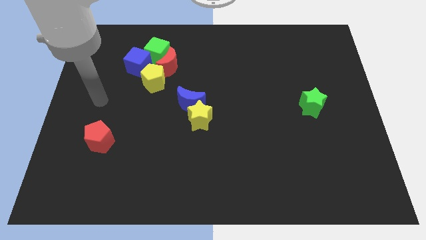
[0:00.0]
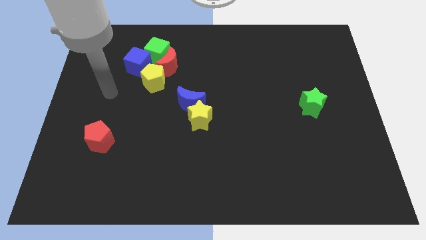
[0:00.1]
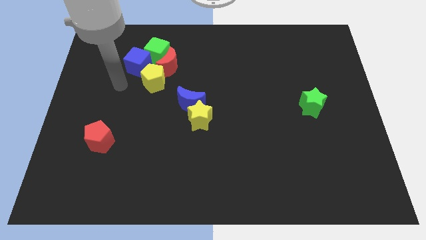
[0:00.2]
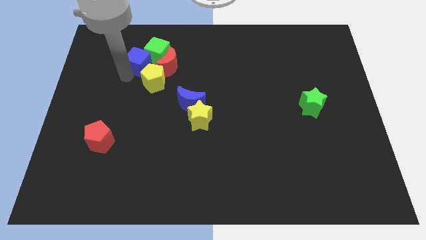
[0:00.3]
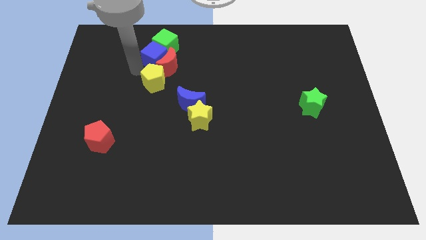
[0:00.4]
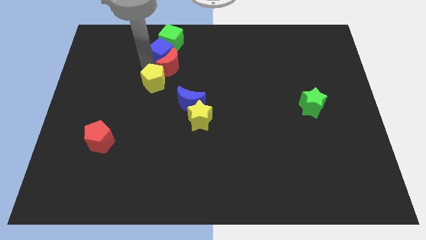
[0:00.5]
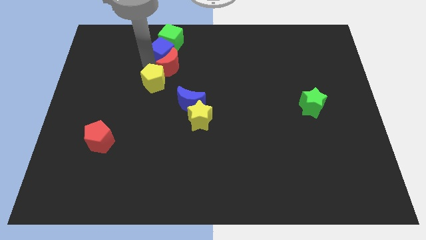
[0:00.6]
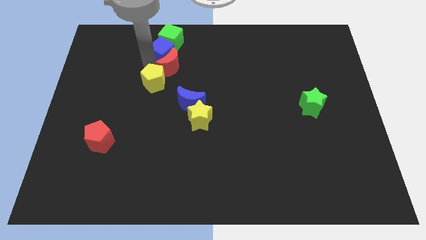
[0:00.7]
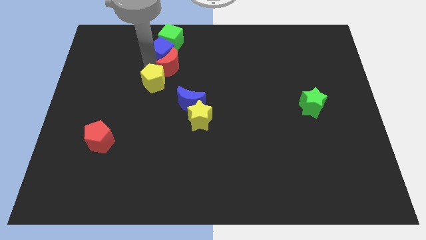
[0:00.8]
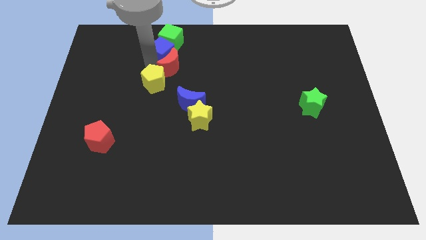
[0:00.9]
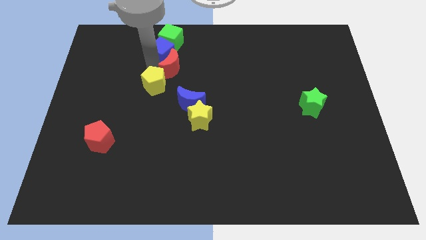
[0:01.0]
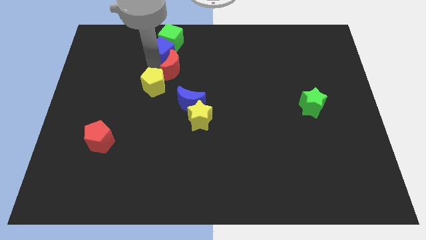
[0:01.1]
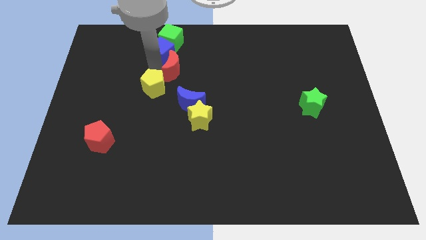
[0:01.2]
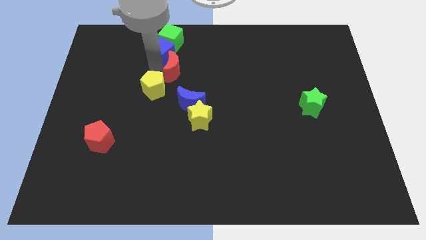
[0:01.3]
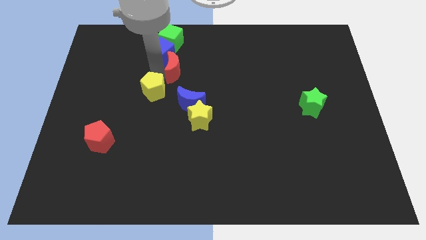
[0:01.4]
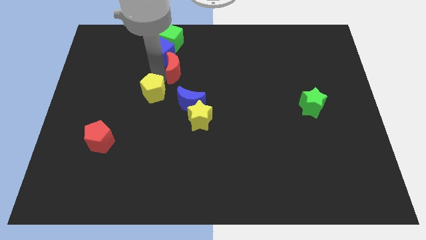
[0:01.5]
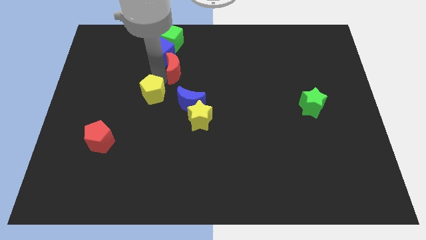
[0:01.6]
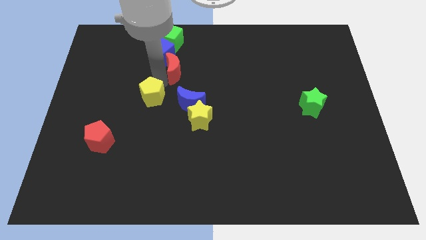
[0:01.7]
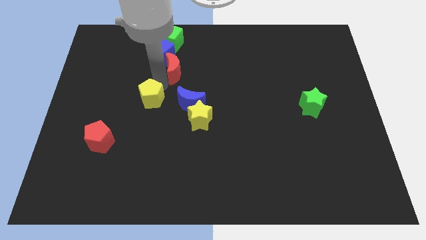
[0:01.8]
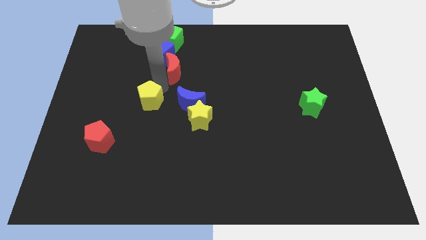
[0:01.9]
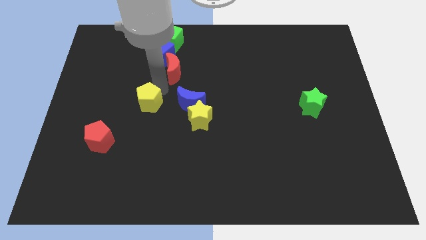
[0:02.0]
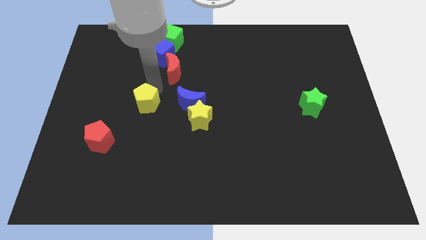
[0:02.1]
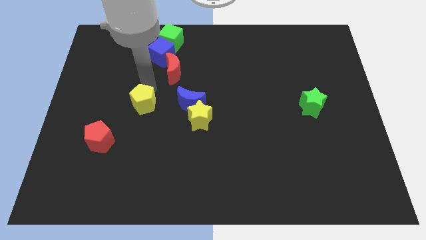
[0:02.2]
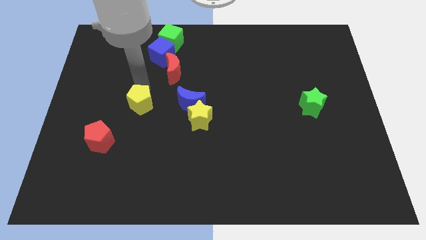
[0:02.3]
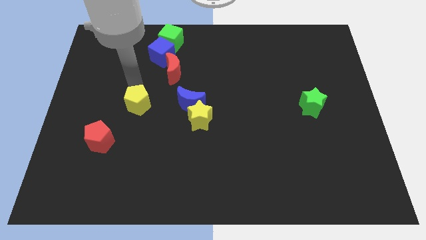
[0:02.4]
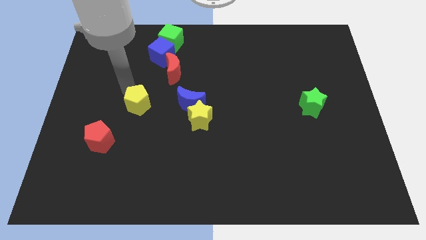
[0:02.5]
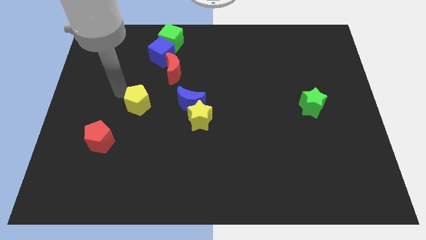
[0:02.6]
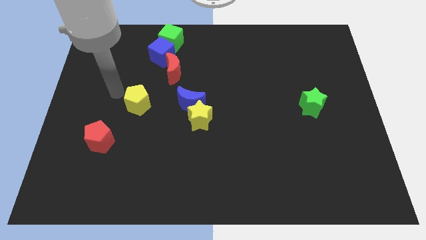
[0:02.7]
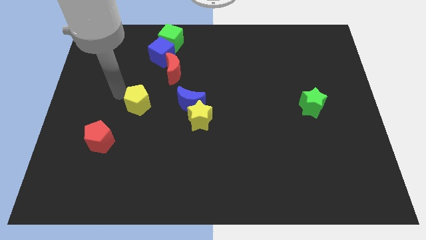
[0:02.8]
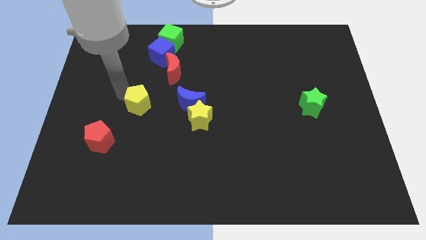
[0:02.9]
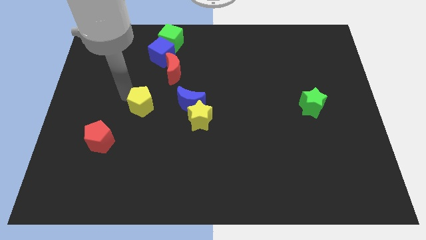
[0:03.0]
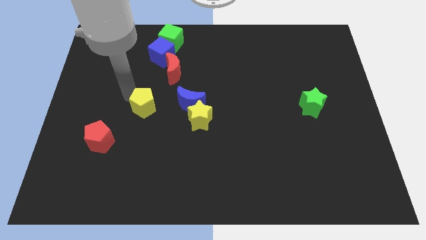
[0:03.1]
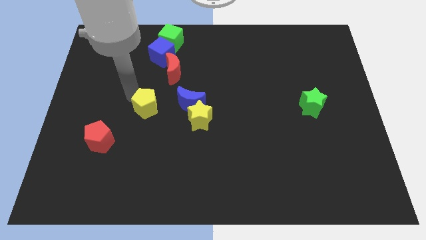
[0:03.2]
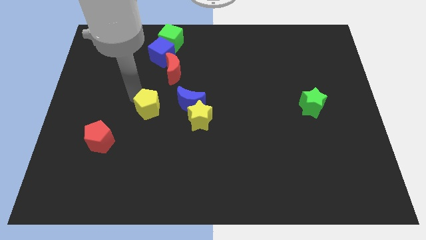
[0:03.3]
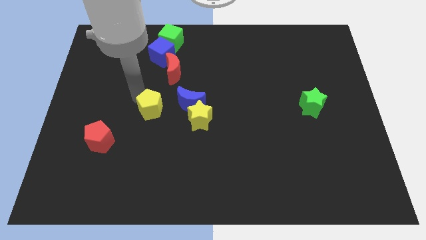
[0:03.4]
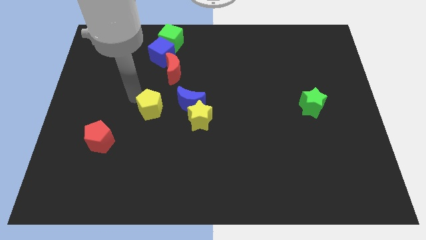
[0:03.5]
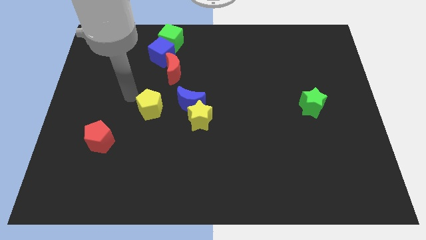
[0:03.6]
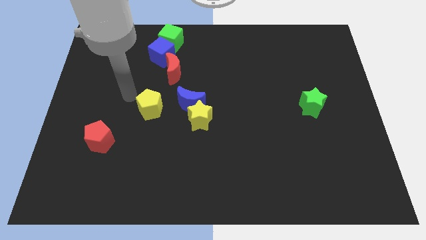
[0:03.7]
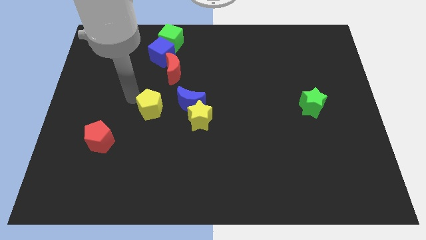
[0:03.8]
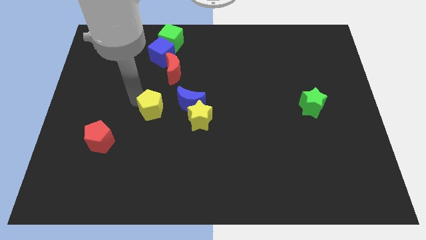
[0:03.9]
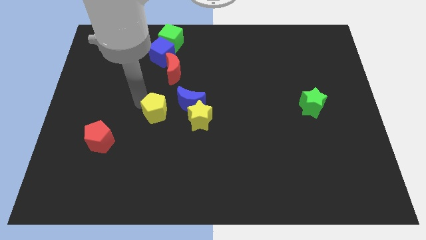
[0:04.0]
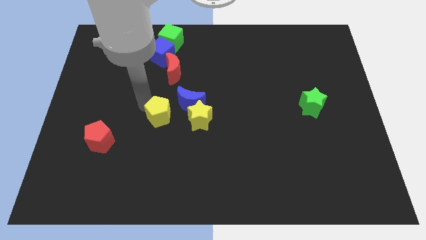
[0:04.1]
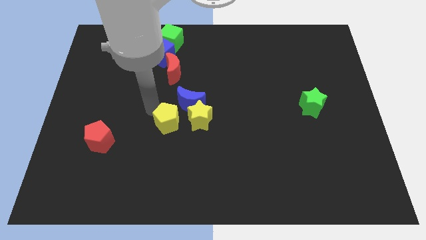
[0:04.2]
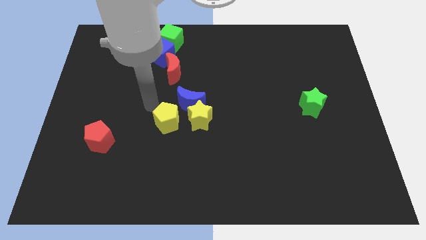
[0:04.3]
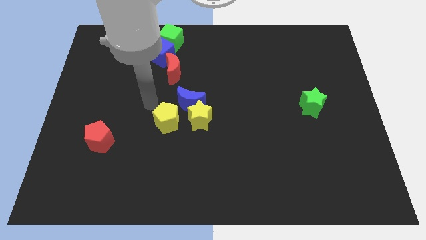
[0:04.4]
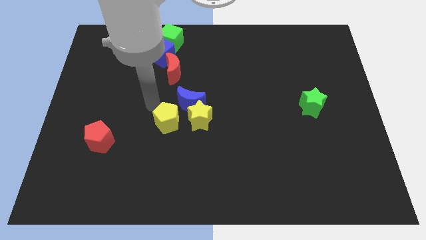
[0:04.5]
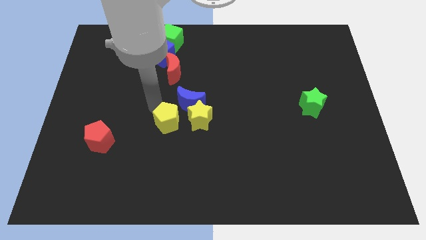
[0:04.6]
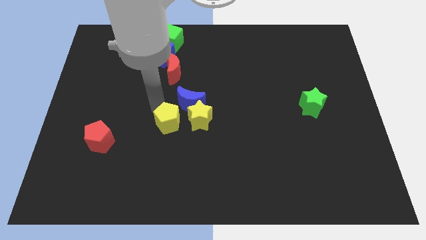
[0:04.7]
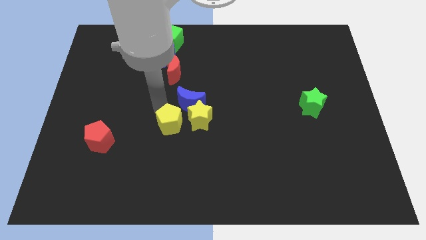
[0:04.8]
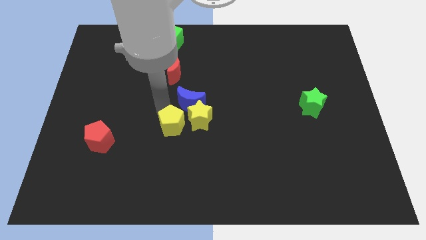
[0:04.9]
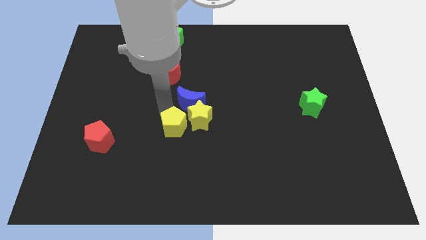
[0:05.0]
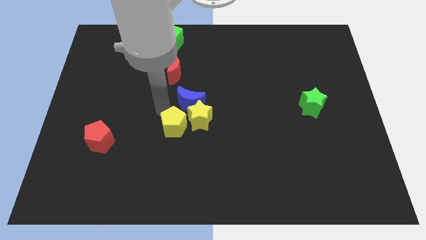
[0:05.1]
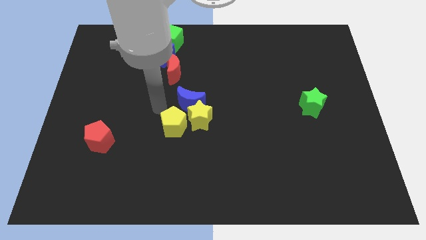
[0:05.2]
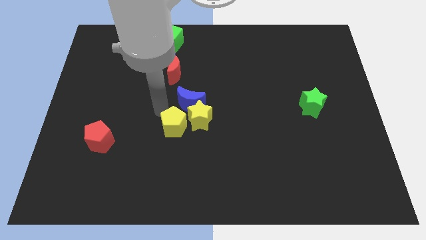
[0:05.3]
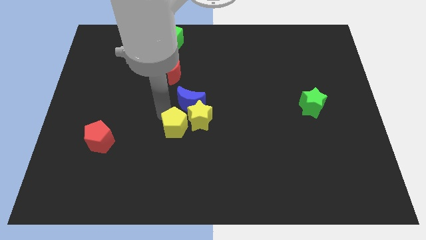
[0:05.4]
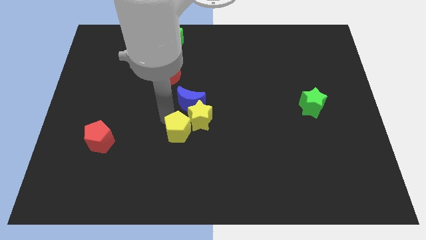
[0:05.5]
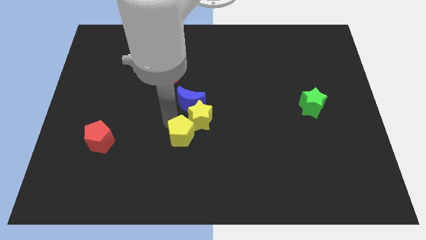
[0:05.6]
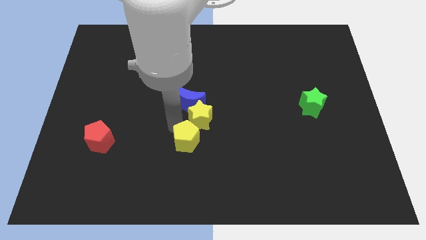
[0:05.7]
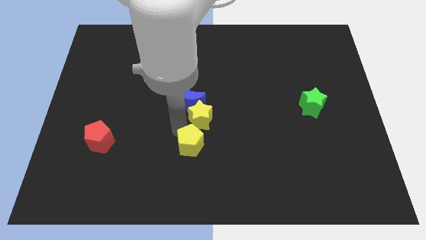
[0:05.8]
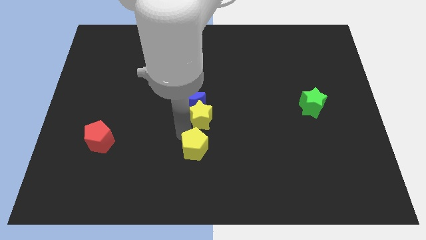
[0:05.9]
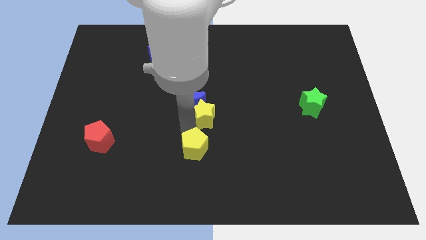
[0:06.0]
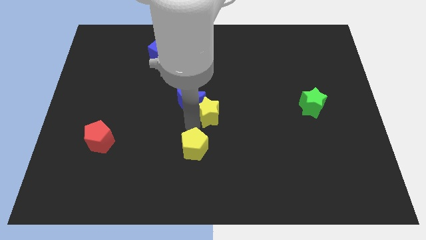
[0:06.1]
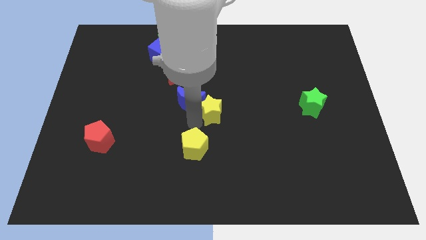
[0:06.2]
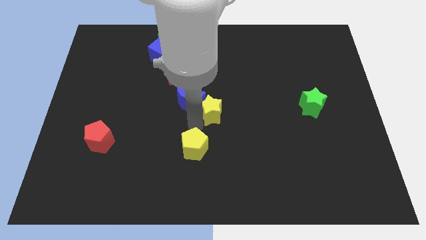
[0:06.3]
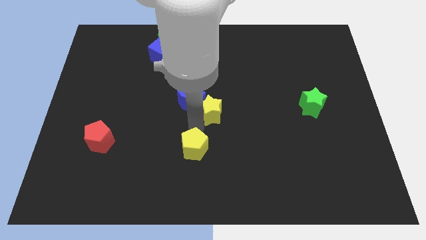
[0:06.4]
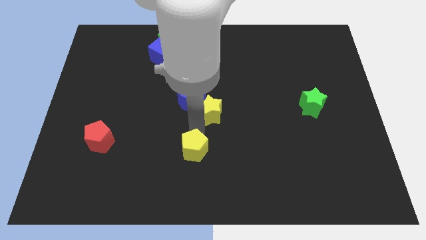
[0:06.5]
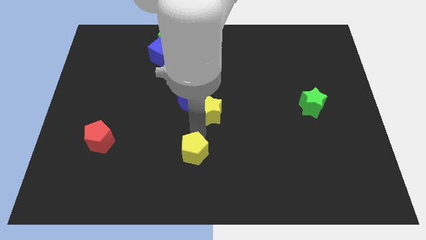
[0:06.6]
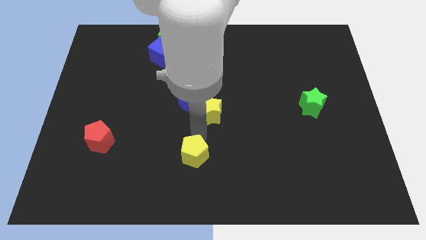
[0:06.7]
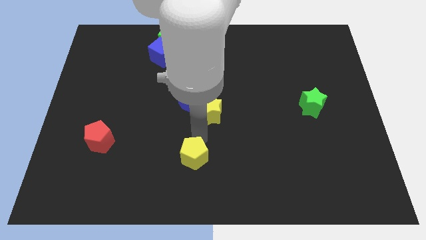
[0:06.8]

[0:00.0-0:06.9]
put the yellow pentagon to the bottom
